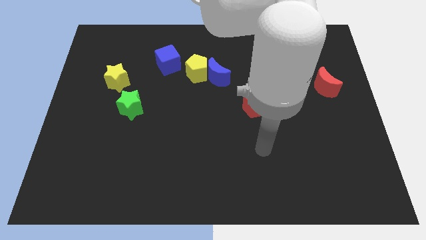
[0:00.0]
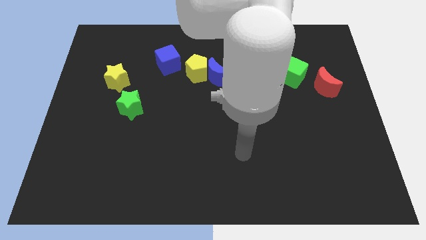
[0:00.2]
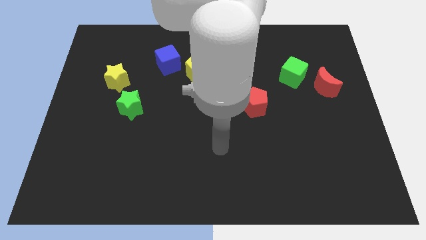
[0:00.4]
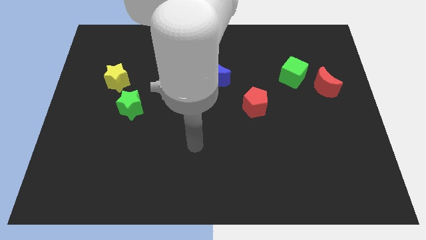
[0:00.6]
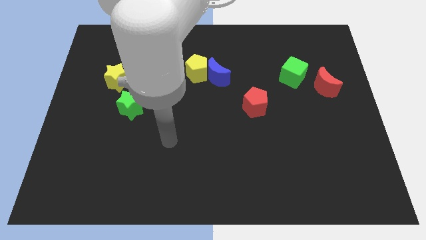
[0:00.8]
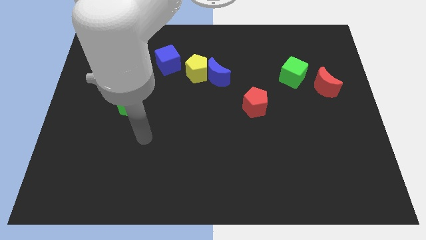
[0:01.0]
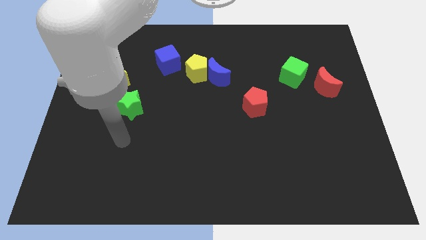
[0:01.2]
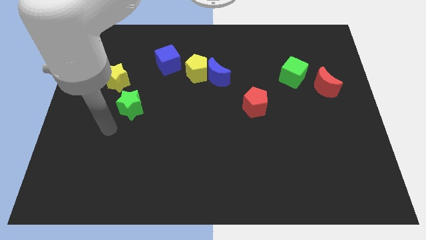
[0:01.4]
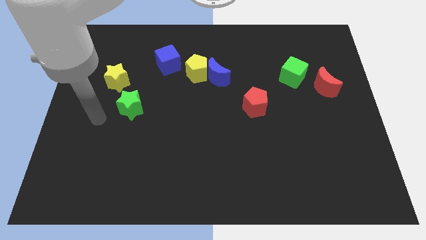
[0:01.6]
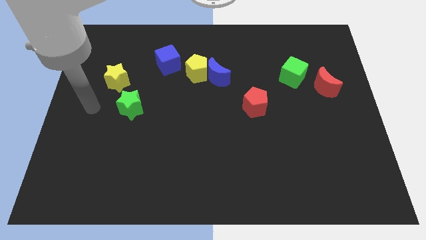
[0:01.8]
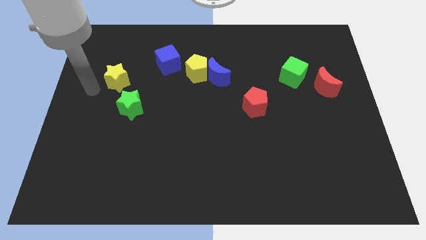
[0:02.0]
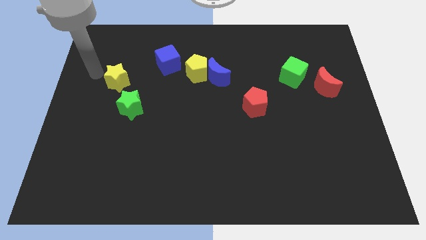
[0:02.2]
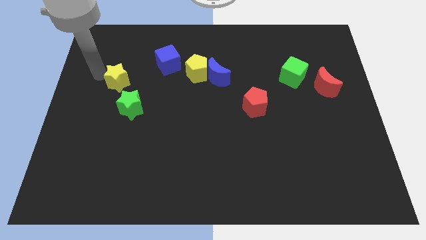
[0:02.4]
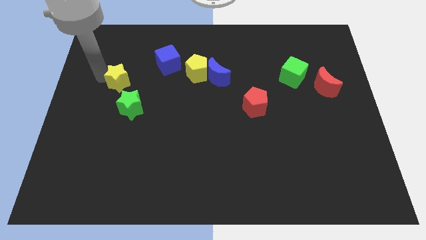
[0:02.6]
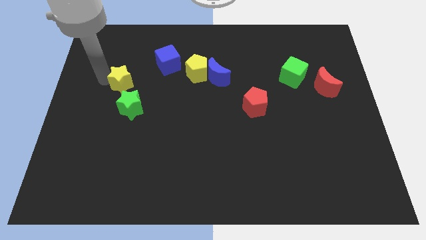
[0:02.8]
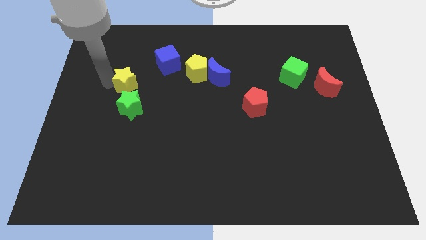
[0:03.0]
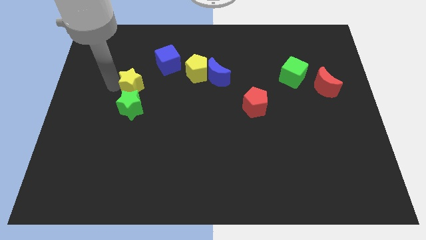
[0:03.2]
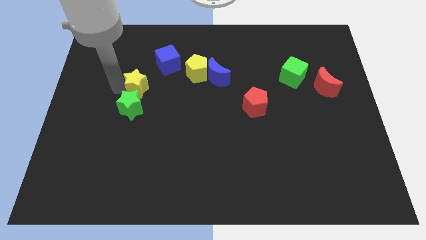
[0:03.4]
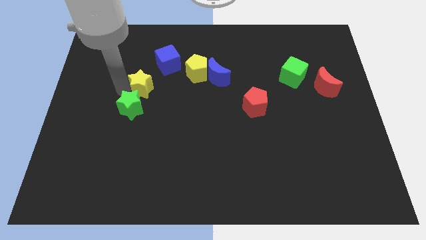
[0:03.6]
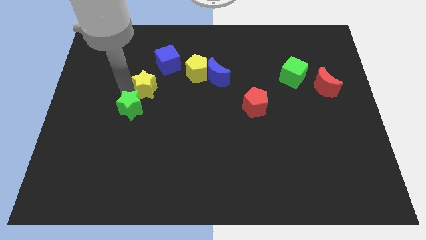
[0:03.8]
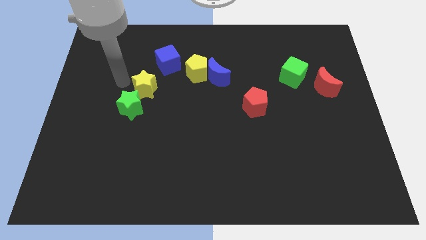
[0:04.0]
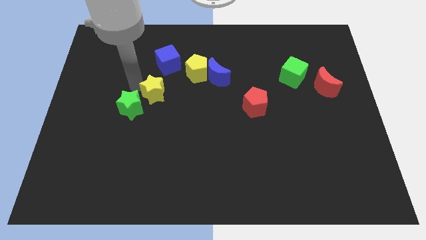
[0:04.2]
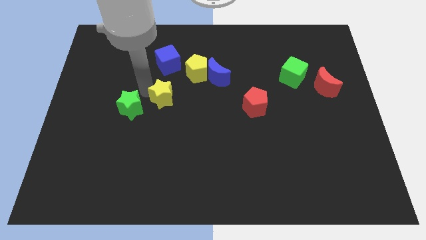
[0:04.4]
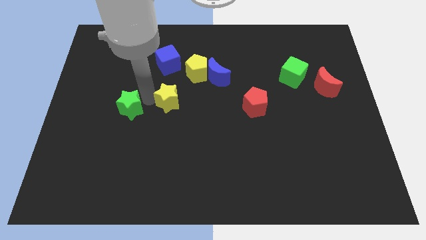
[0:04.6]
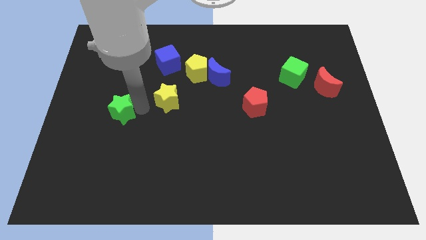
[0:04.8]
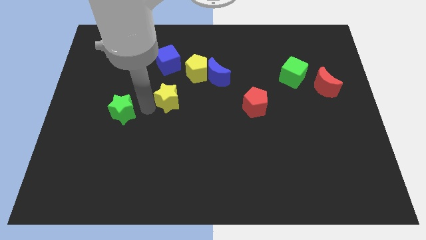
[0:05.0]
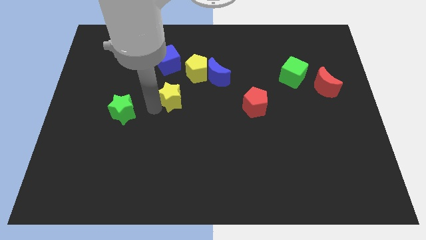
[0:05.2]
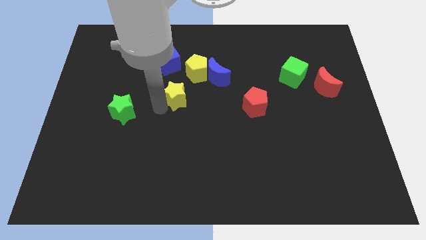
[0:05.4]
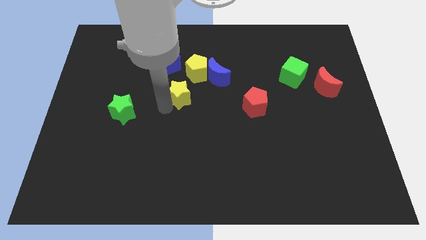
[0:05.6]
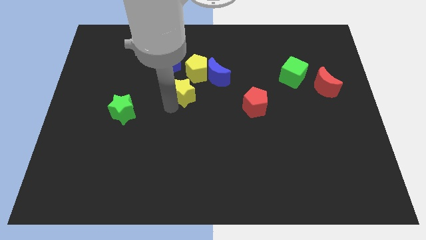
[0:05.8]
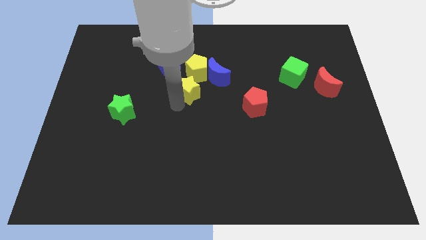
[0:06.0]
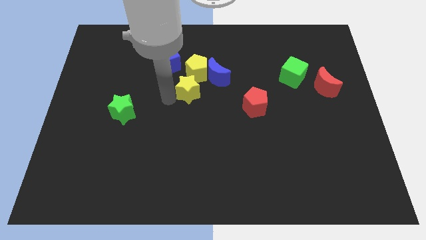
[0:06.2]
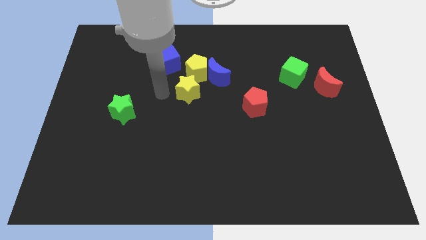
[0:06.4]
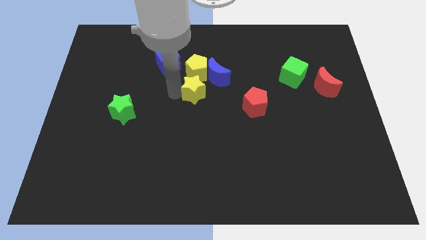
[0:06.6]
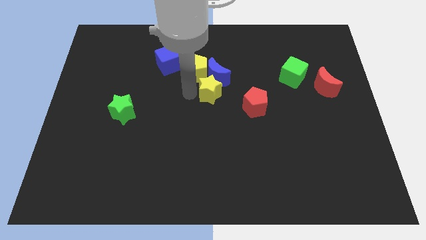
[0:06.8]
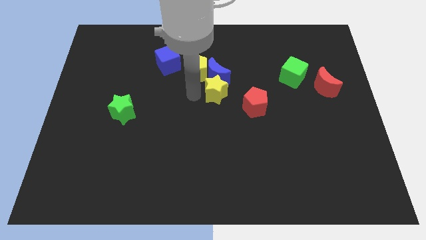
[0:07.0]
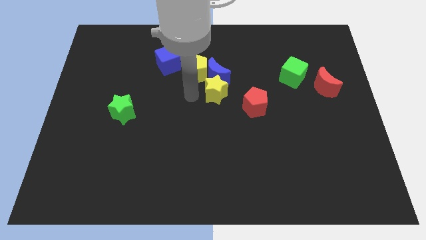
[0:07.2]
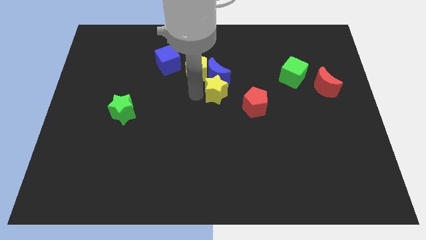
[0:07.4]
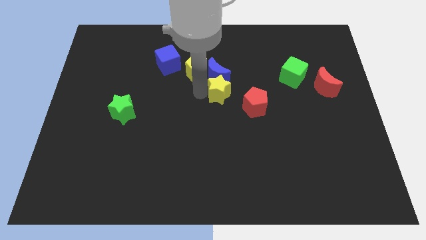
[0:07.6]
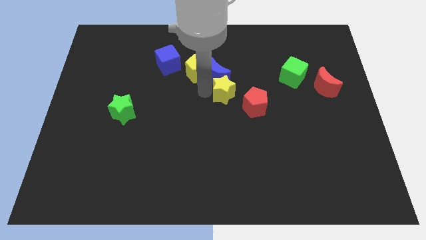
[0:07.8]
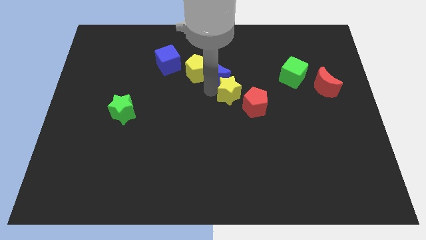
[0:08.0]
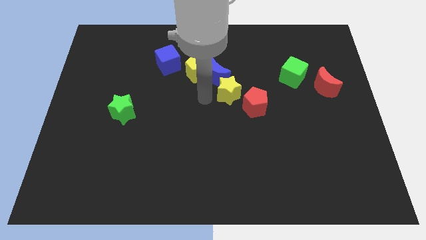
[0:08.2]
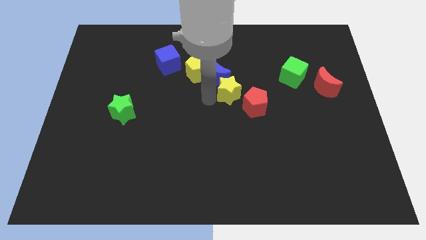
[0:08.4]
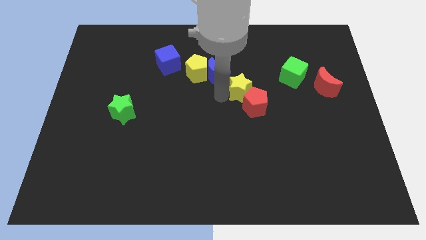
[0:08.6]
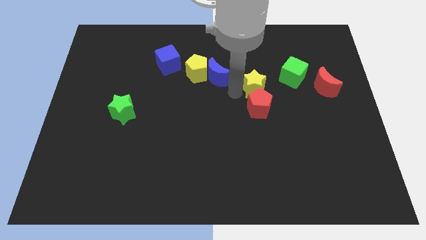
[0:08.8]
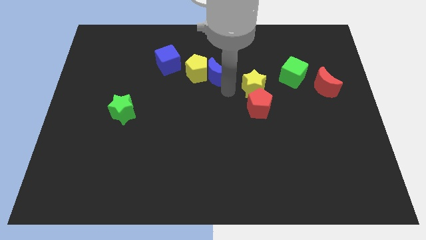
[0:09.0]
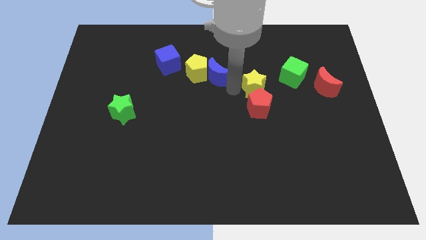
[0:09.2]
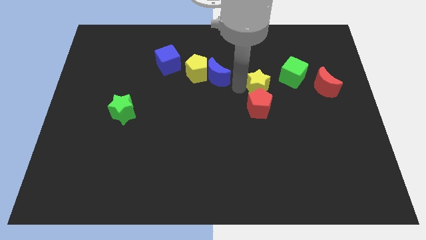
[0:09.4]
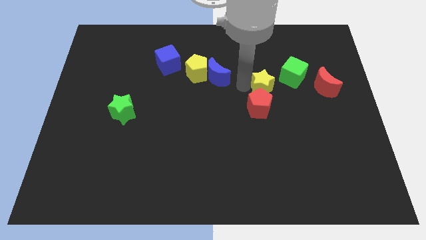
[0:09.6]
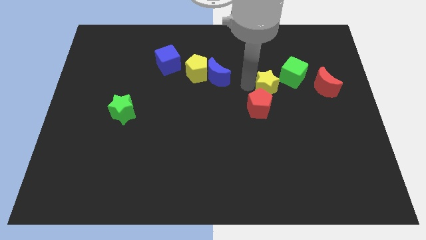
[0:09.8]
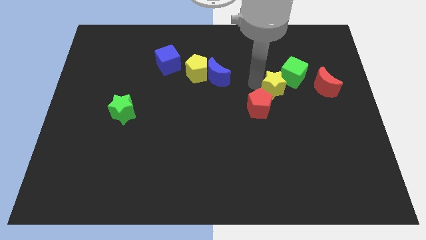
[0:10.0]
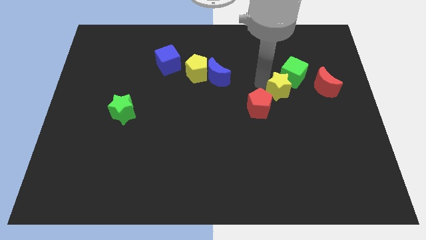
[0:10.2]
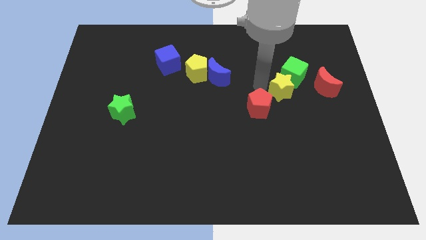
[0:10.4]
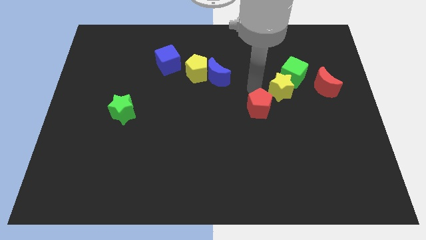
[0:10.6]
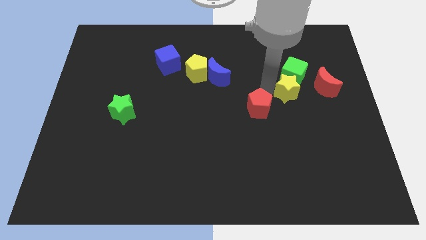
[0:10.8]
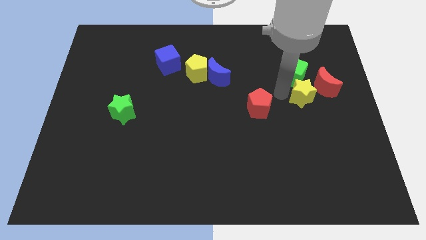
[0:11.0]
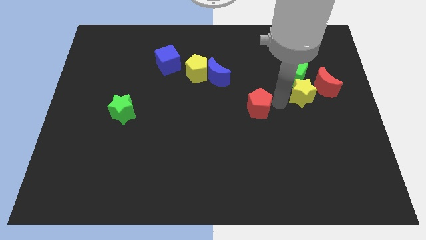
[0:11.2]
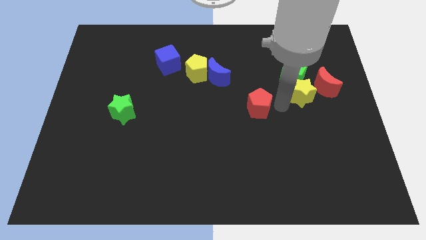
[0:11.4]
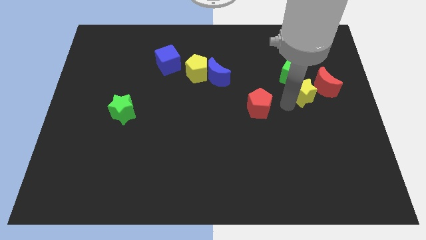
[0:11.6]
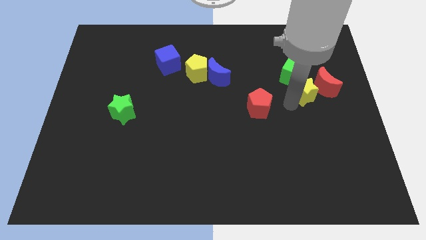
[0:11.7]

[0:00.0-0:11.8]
move the yellow star next to the red moon

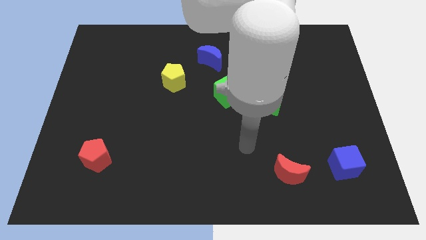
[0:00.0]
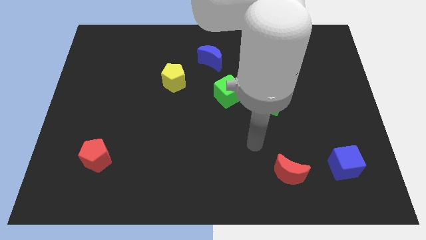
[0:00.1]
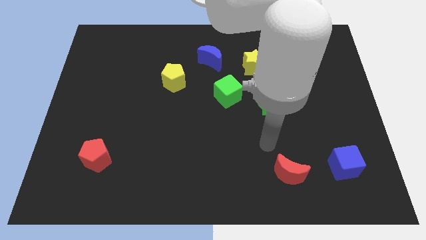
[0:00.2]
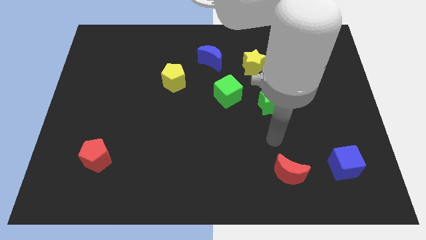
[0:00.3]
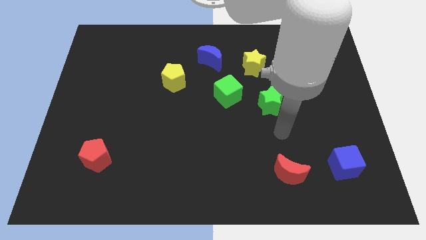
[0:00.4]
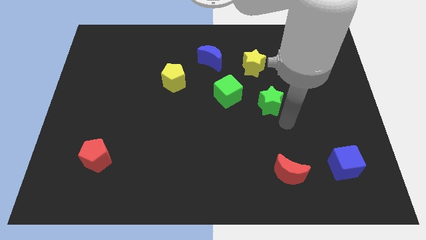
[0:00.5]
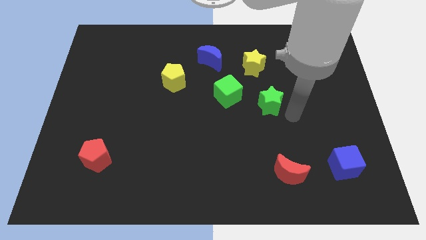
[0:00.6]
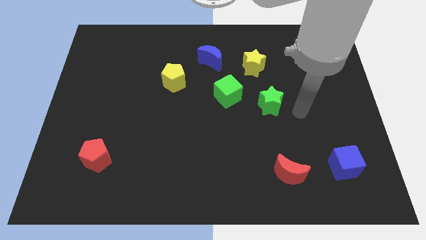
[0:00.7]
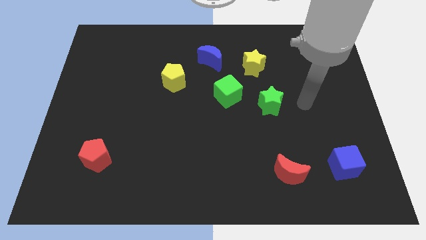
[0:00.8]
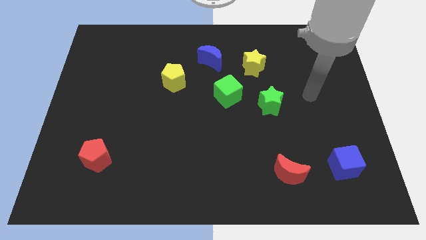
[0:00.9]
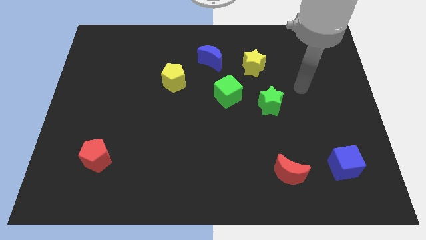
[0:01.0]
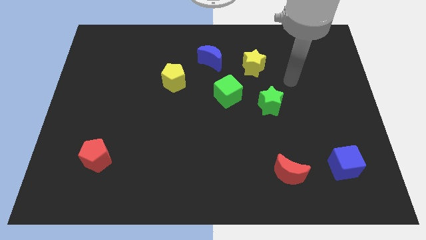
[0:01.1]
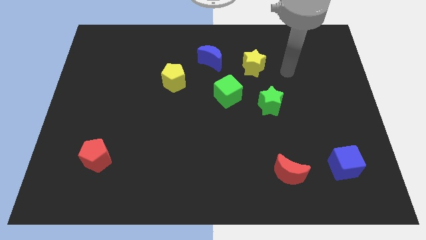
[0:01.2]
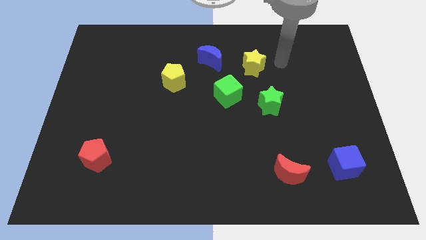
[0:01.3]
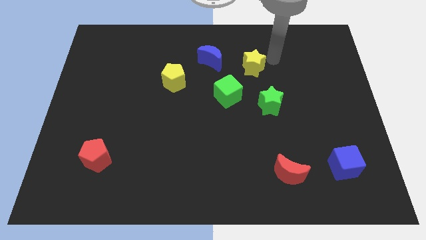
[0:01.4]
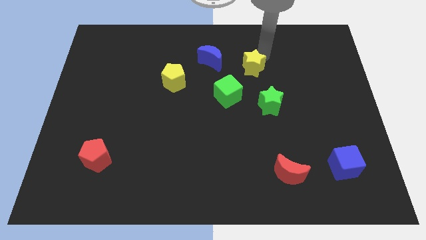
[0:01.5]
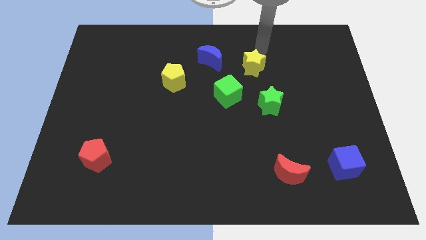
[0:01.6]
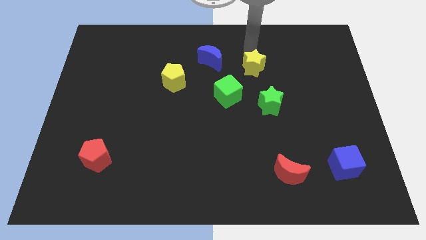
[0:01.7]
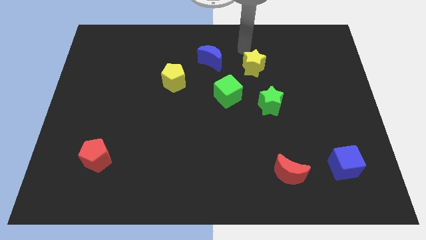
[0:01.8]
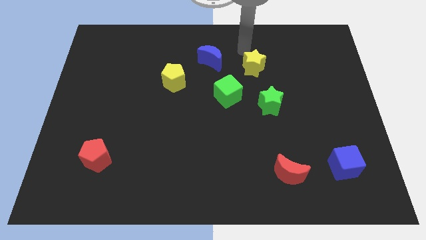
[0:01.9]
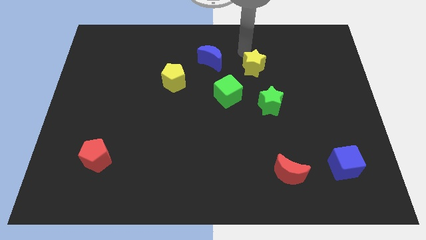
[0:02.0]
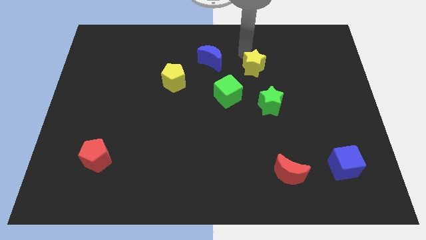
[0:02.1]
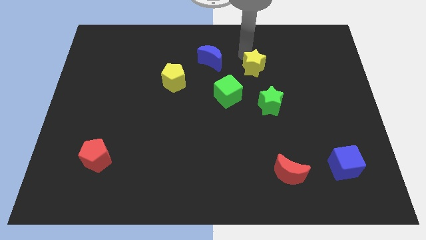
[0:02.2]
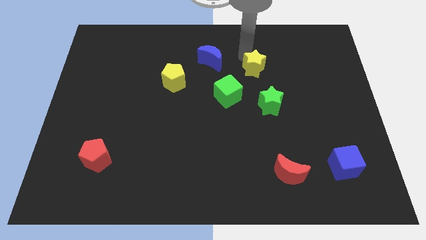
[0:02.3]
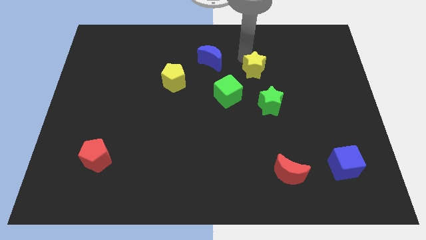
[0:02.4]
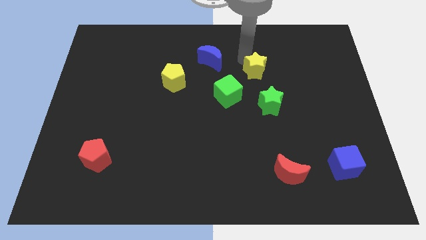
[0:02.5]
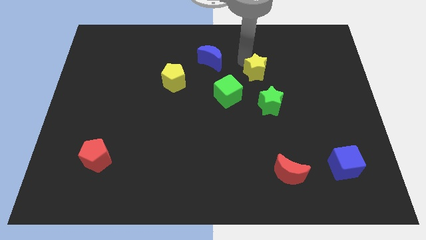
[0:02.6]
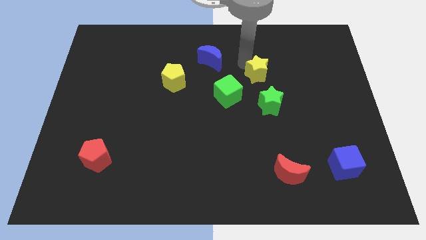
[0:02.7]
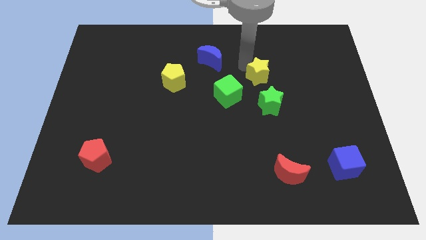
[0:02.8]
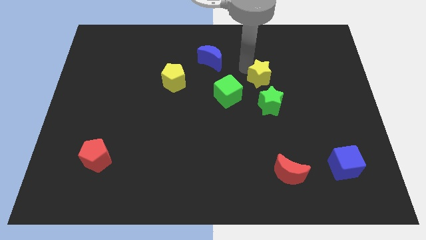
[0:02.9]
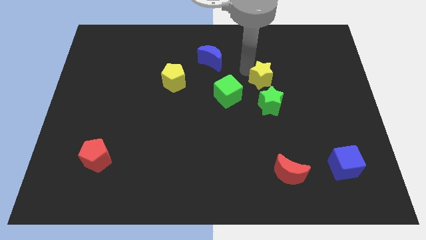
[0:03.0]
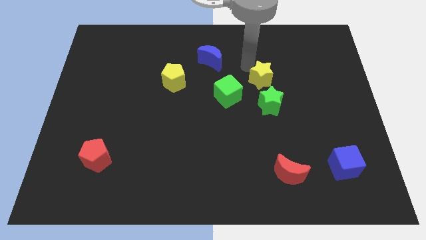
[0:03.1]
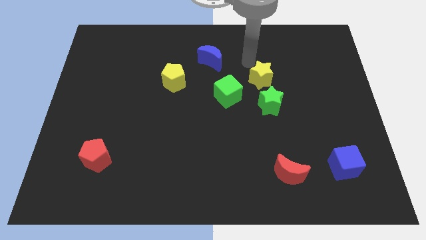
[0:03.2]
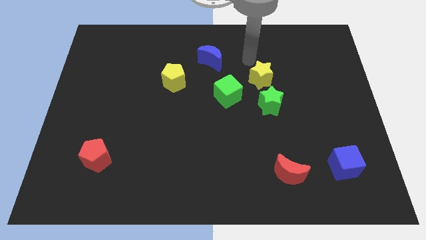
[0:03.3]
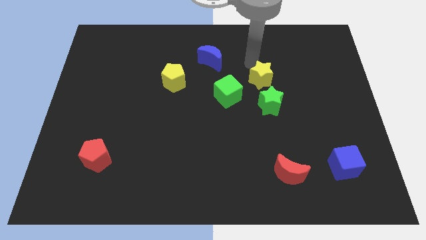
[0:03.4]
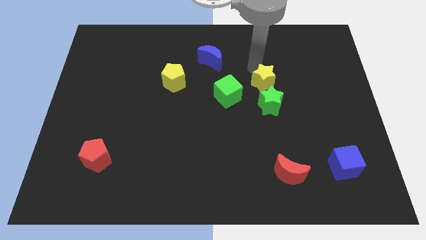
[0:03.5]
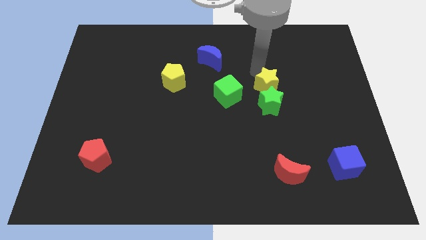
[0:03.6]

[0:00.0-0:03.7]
slide the yellow star towards the green star
